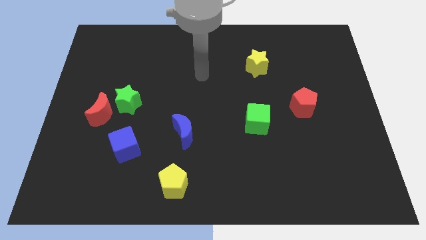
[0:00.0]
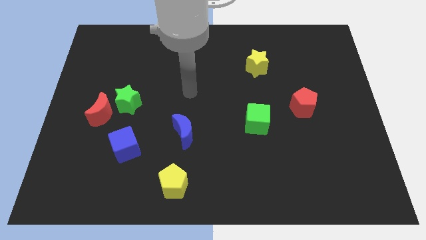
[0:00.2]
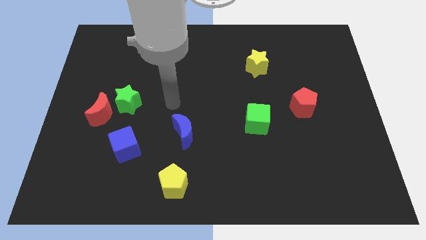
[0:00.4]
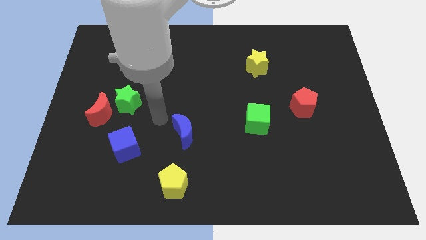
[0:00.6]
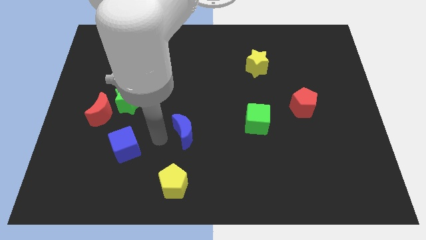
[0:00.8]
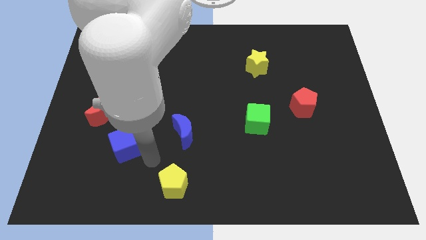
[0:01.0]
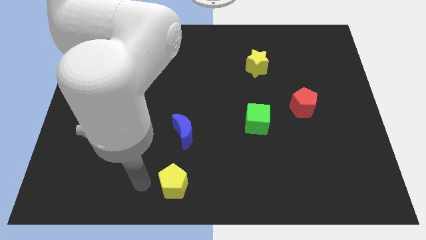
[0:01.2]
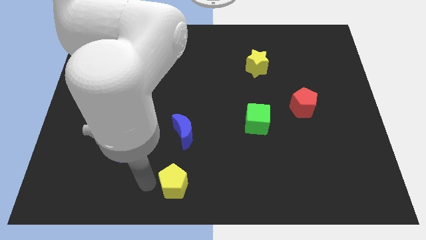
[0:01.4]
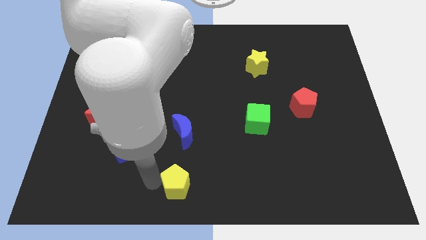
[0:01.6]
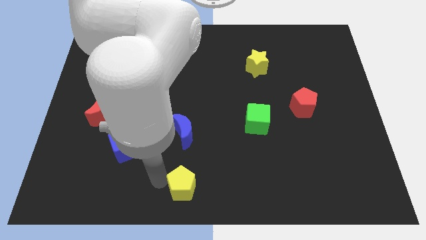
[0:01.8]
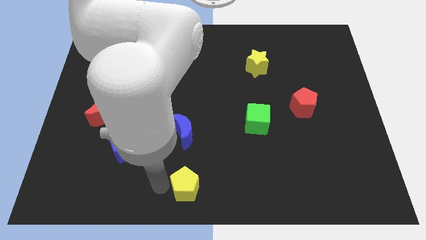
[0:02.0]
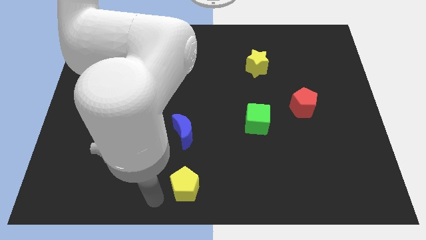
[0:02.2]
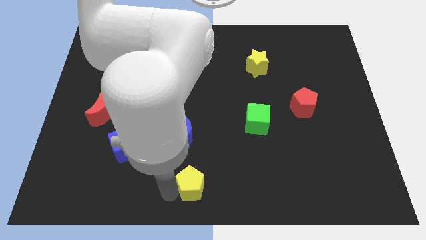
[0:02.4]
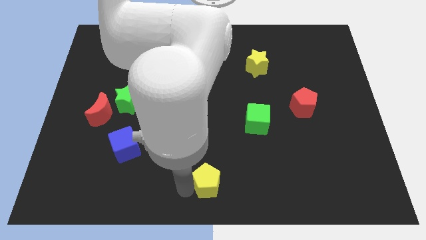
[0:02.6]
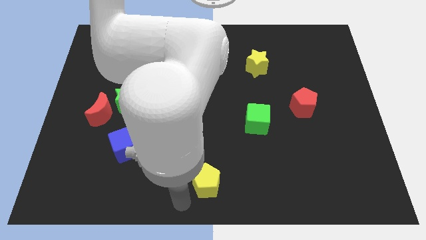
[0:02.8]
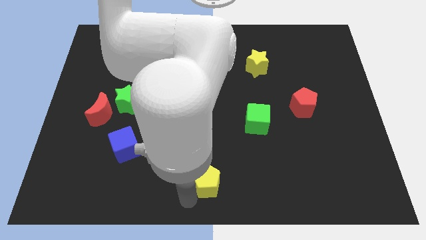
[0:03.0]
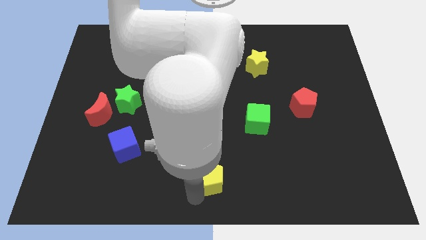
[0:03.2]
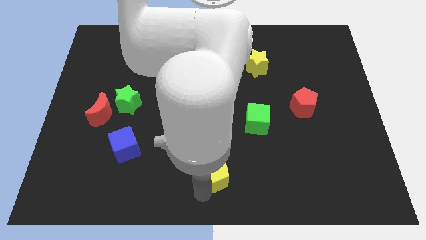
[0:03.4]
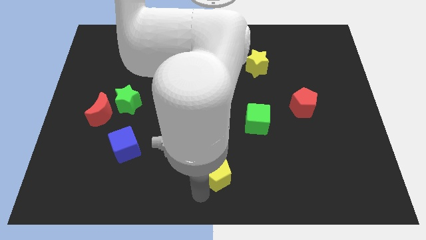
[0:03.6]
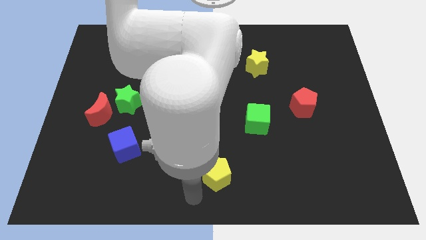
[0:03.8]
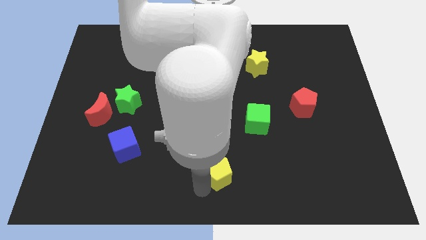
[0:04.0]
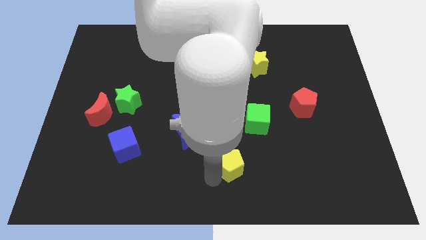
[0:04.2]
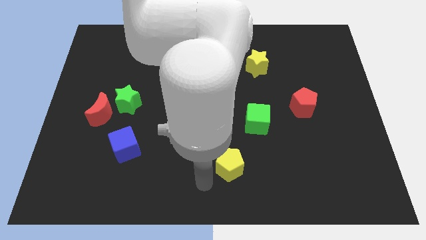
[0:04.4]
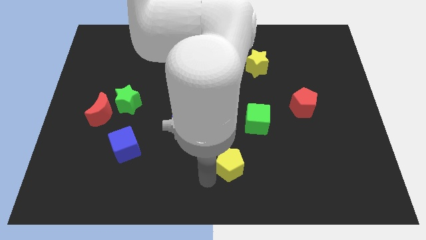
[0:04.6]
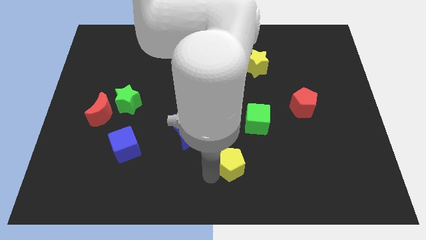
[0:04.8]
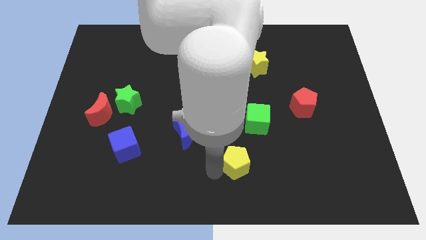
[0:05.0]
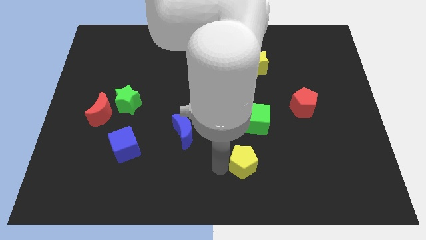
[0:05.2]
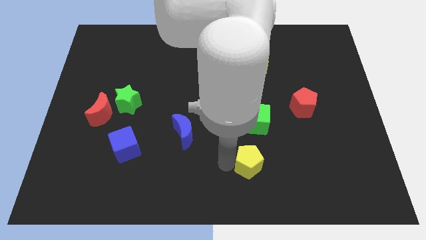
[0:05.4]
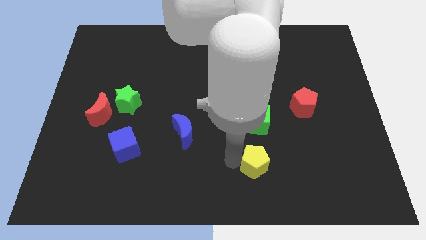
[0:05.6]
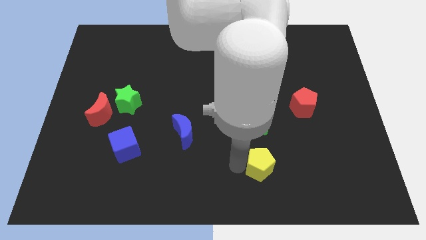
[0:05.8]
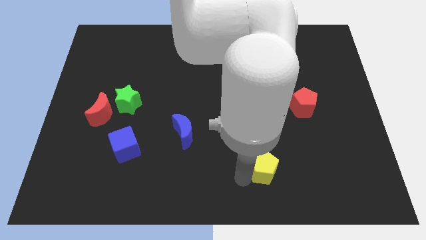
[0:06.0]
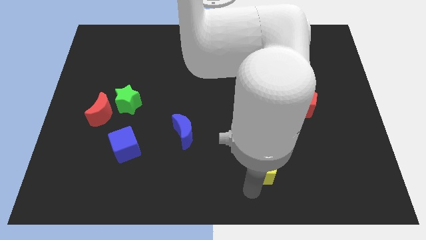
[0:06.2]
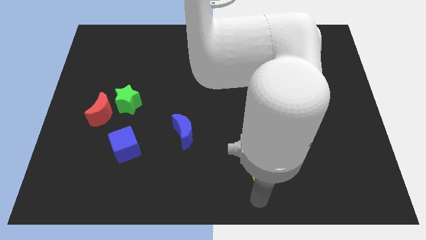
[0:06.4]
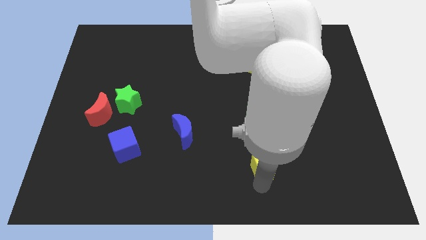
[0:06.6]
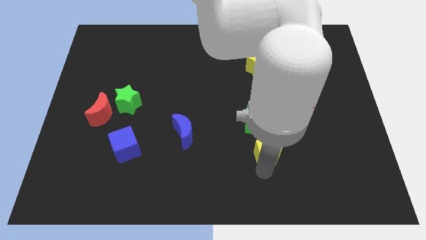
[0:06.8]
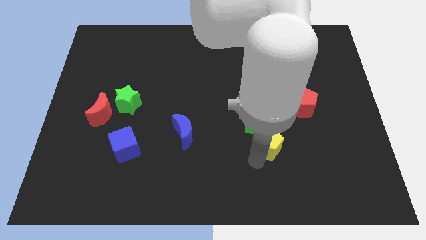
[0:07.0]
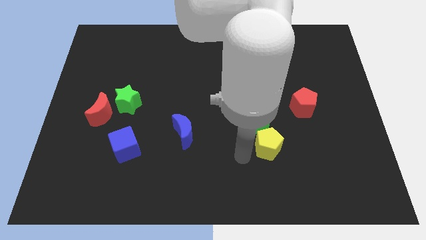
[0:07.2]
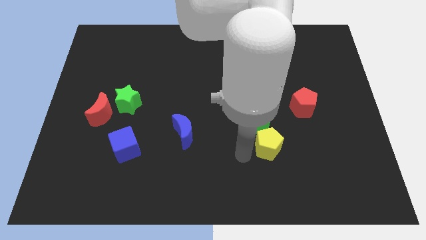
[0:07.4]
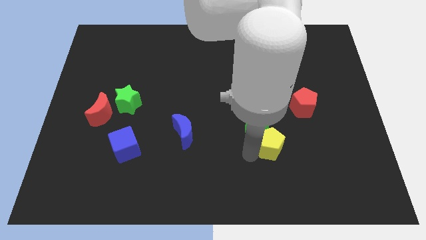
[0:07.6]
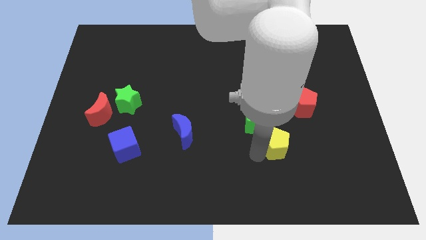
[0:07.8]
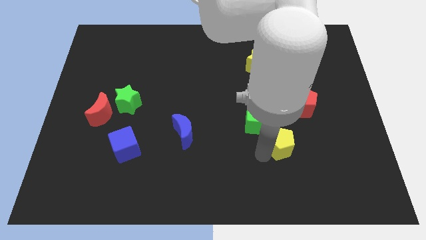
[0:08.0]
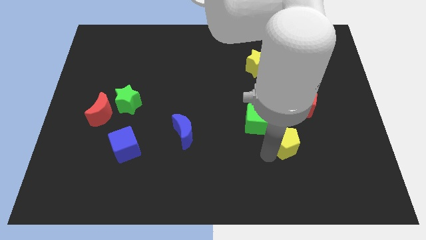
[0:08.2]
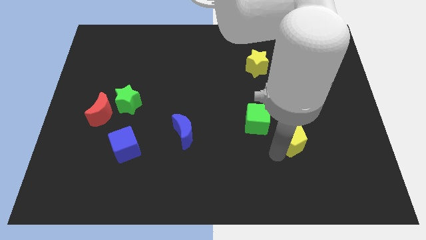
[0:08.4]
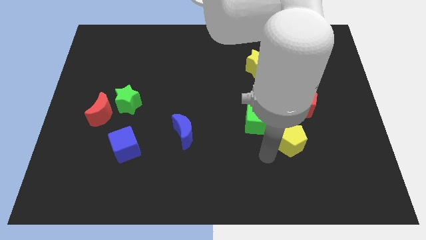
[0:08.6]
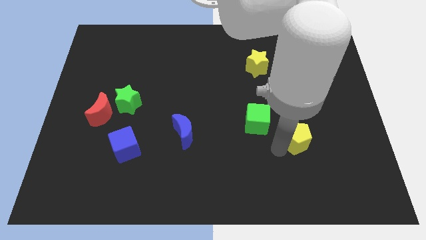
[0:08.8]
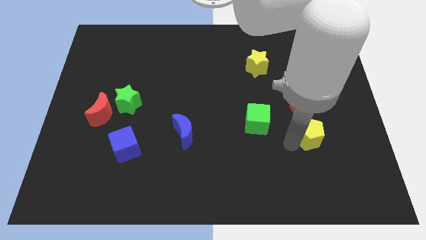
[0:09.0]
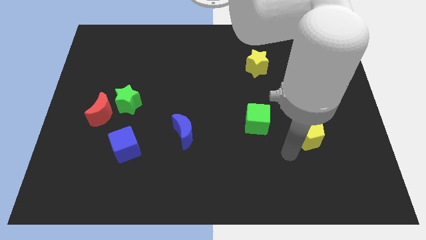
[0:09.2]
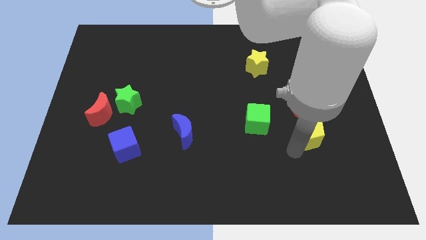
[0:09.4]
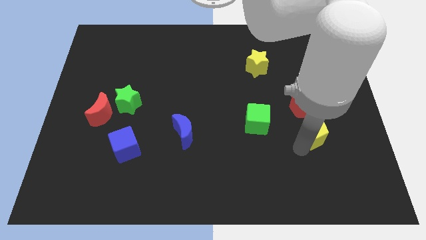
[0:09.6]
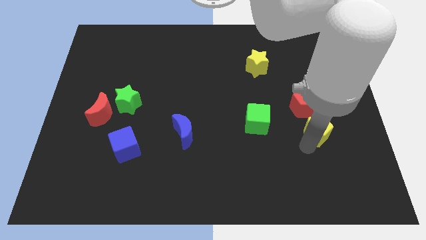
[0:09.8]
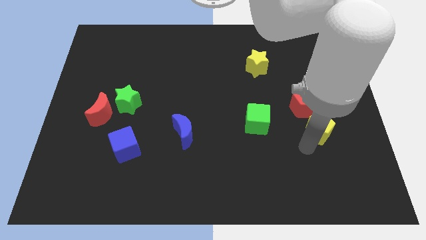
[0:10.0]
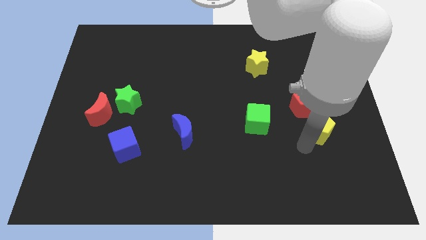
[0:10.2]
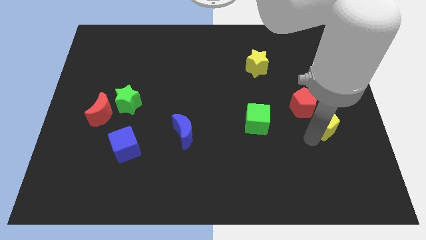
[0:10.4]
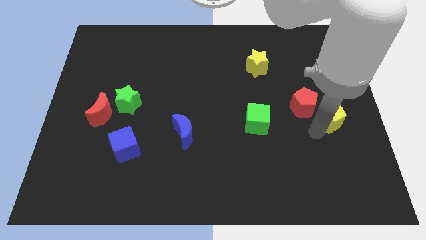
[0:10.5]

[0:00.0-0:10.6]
slide the yellow pentagon to the right side of the board

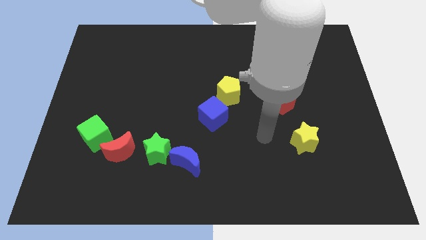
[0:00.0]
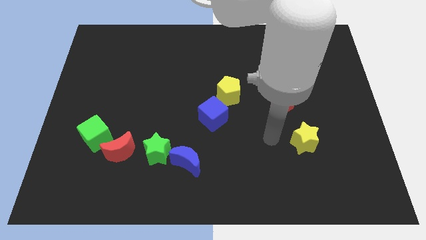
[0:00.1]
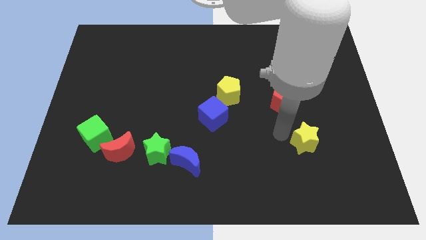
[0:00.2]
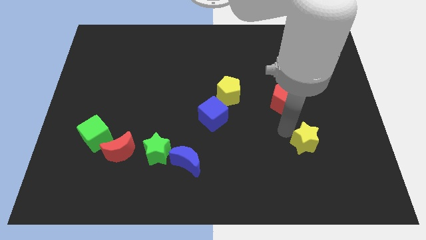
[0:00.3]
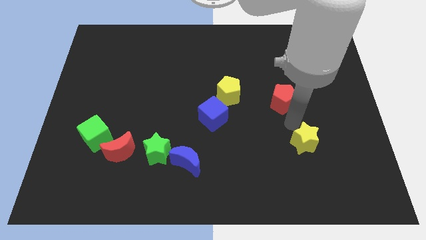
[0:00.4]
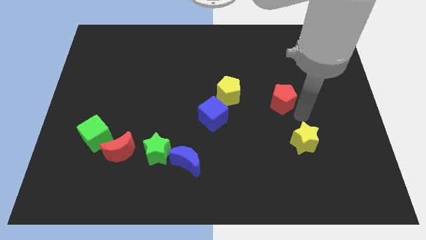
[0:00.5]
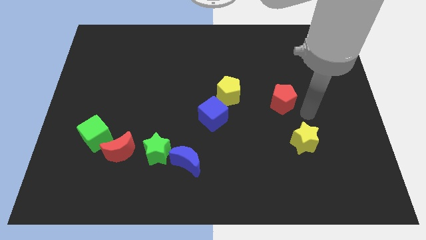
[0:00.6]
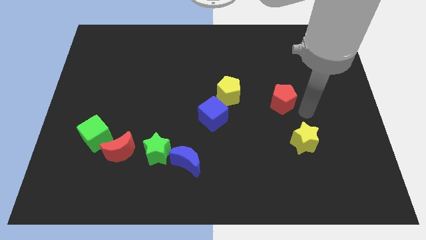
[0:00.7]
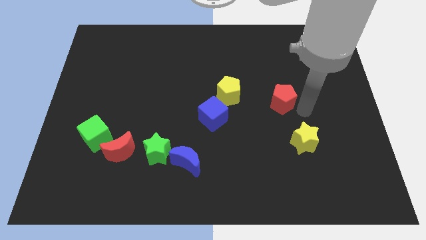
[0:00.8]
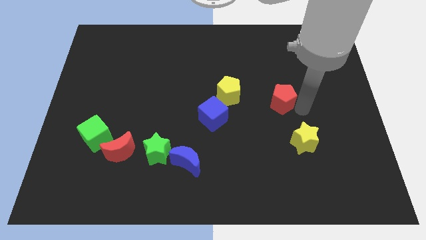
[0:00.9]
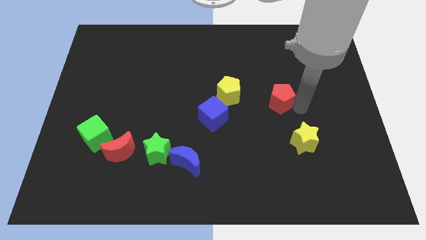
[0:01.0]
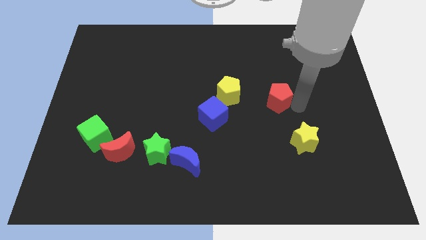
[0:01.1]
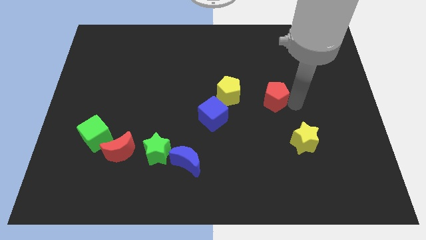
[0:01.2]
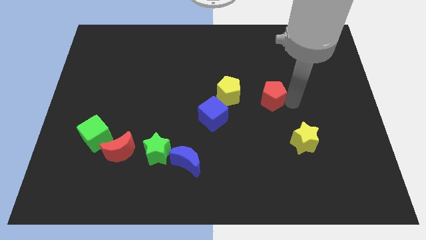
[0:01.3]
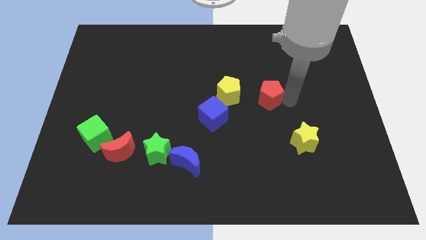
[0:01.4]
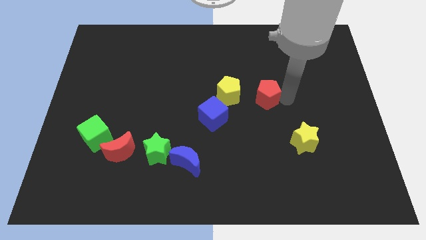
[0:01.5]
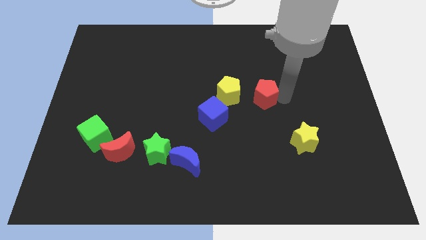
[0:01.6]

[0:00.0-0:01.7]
put the red pentagon to the middle

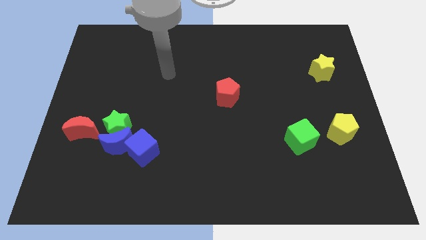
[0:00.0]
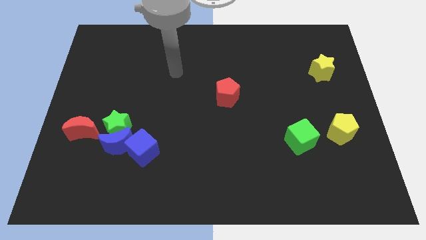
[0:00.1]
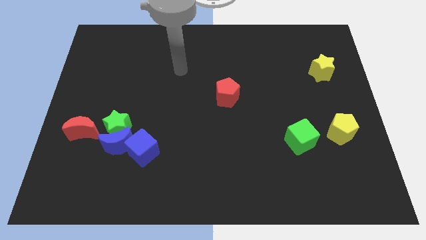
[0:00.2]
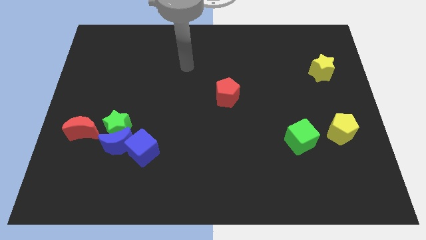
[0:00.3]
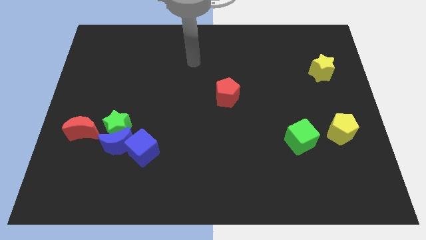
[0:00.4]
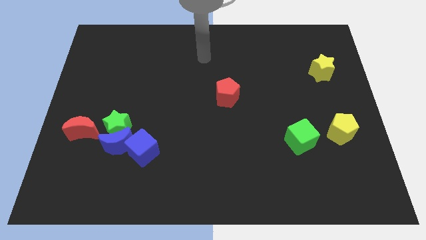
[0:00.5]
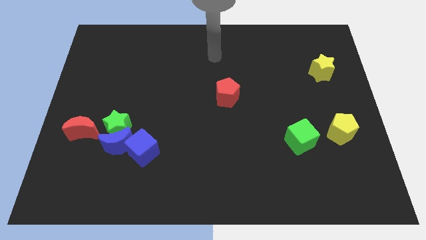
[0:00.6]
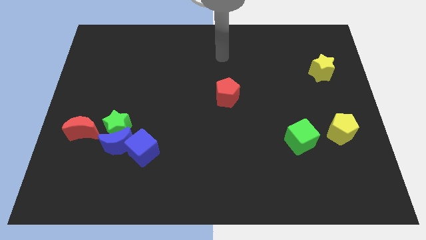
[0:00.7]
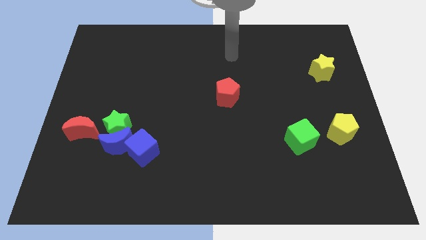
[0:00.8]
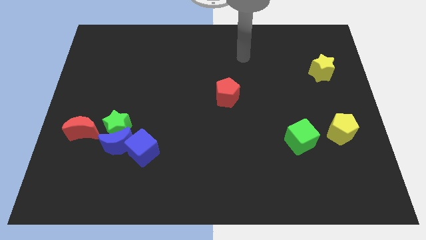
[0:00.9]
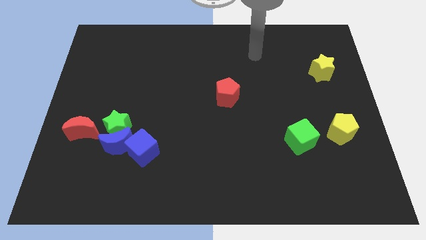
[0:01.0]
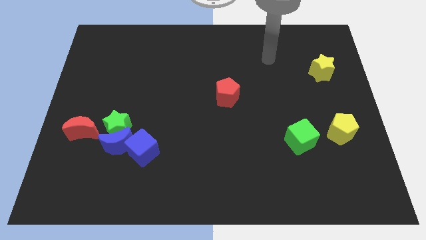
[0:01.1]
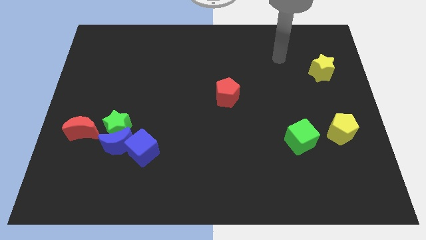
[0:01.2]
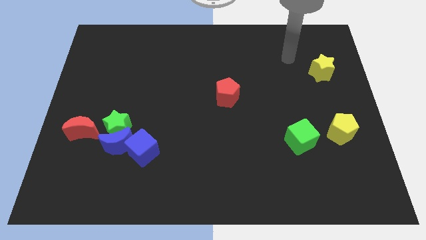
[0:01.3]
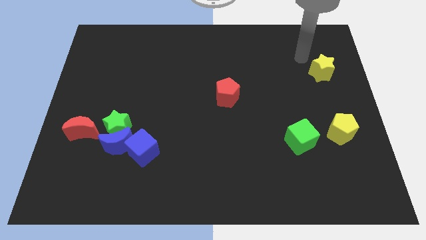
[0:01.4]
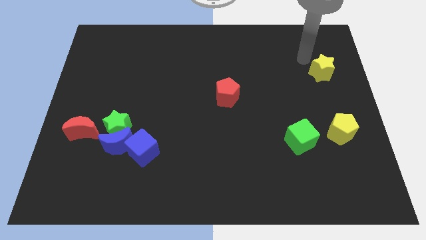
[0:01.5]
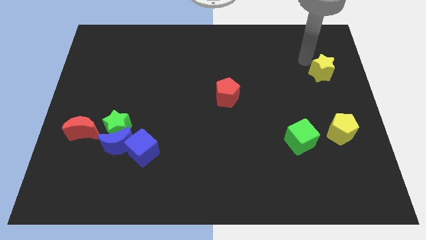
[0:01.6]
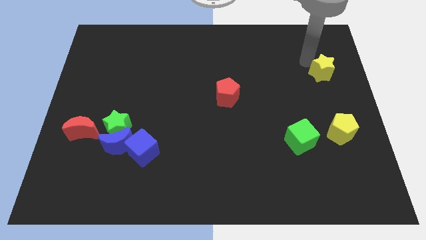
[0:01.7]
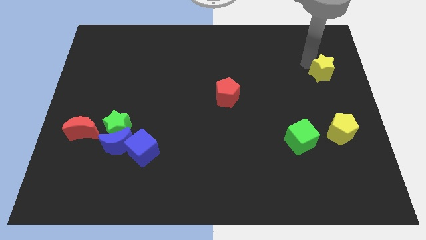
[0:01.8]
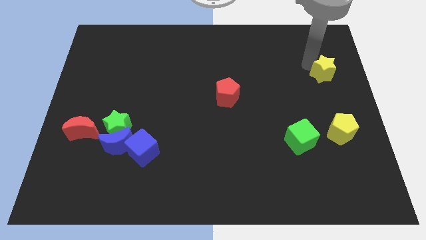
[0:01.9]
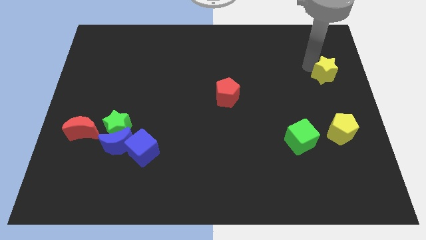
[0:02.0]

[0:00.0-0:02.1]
push the yellow star to the center right
